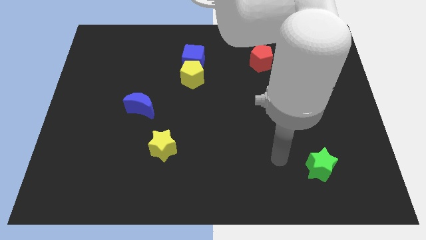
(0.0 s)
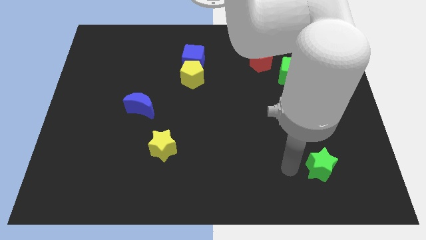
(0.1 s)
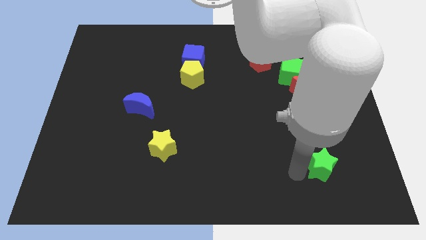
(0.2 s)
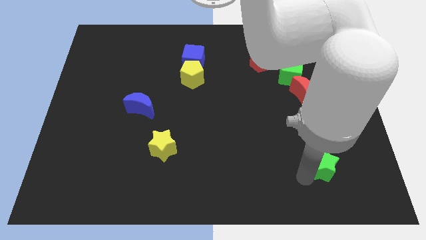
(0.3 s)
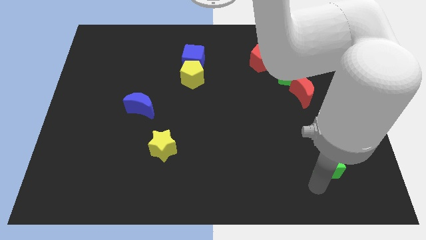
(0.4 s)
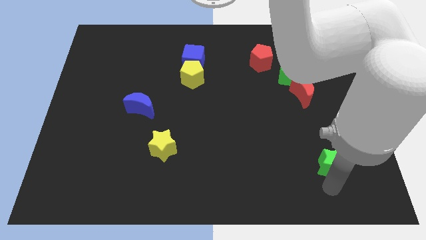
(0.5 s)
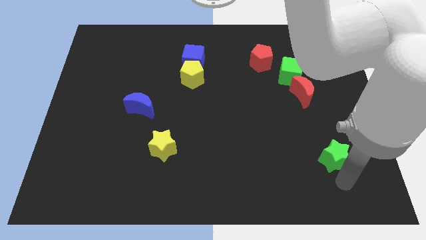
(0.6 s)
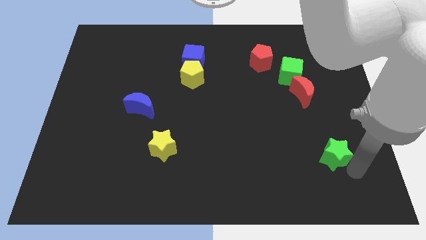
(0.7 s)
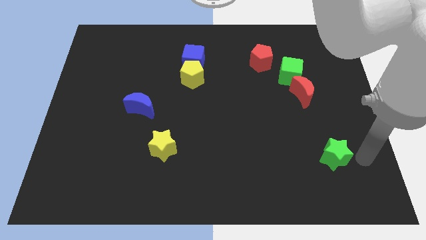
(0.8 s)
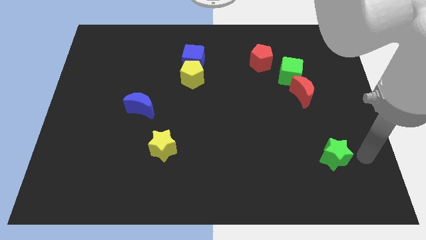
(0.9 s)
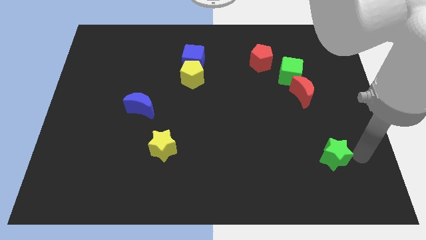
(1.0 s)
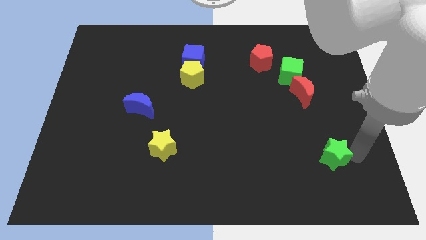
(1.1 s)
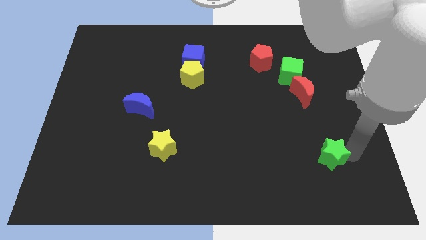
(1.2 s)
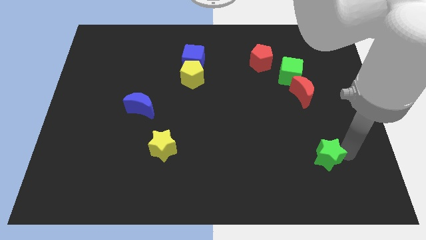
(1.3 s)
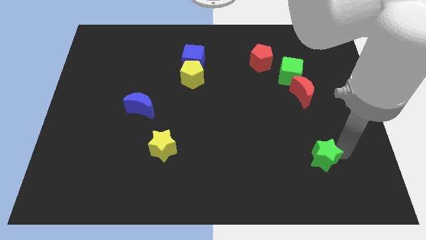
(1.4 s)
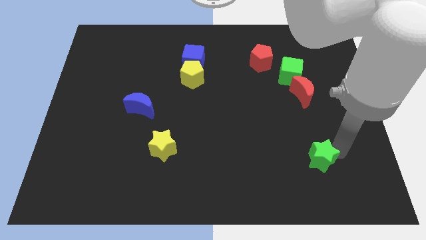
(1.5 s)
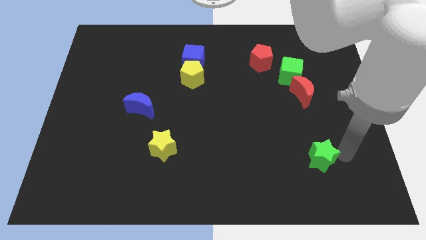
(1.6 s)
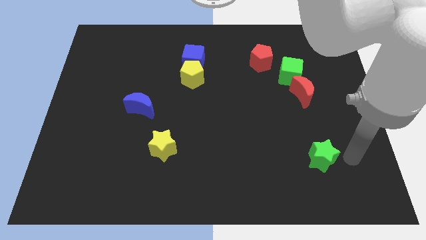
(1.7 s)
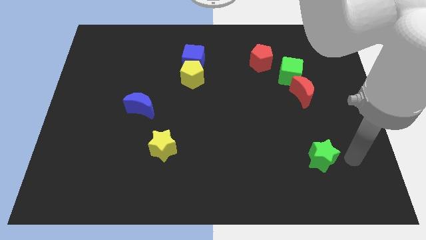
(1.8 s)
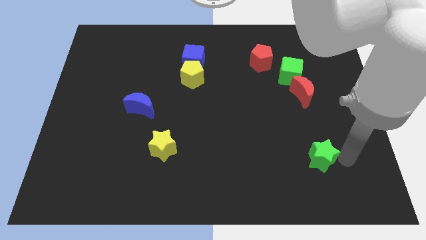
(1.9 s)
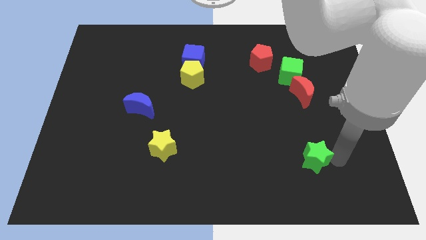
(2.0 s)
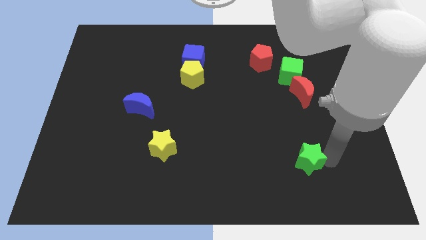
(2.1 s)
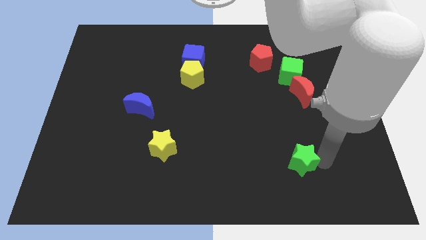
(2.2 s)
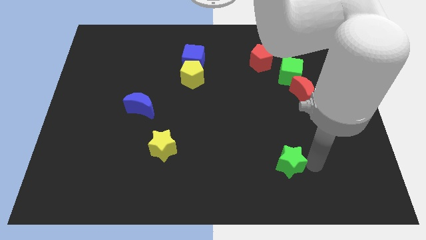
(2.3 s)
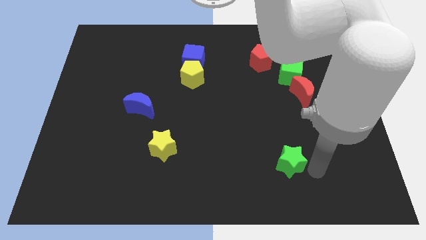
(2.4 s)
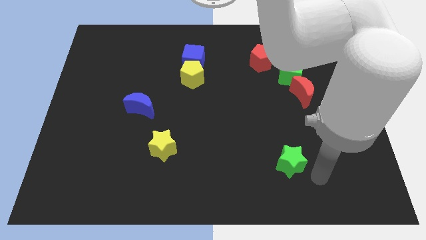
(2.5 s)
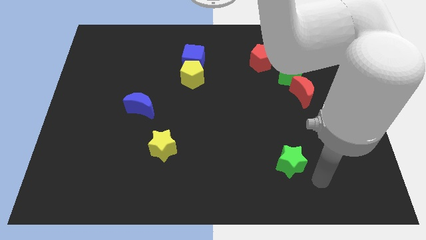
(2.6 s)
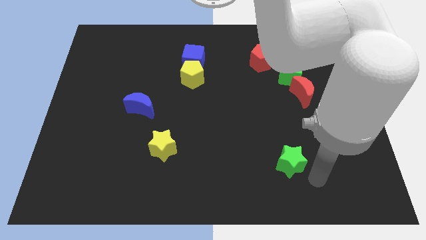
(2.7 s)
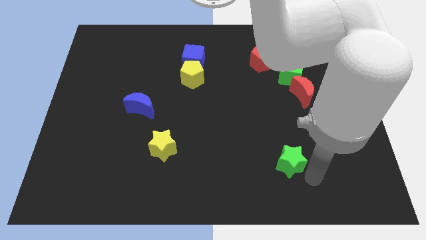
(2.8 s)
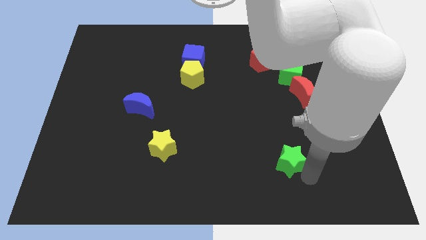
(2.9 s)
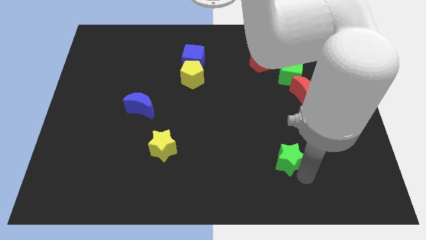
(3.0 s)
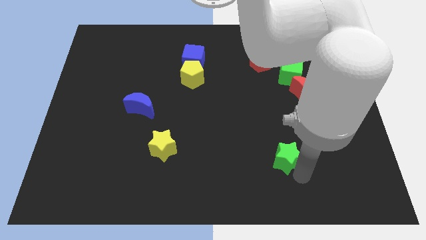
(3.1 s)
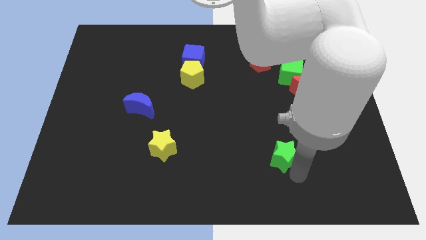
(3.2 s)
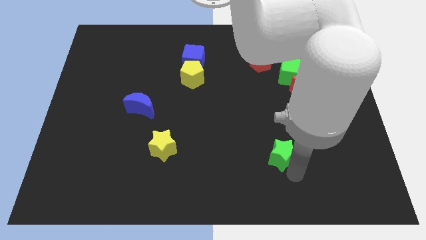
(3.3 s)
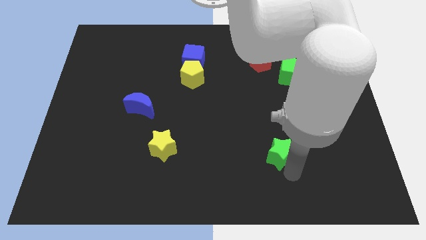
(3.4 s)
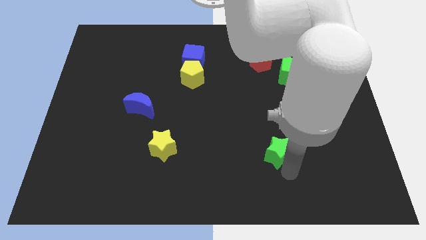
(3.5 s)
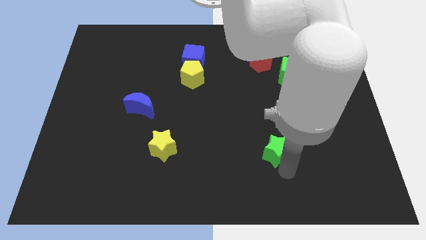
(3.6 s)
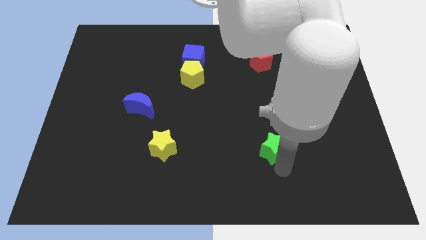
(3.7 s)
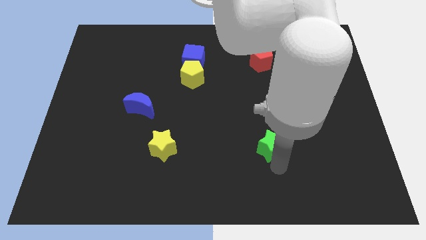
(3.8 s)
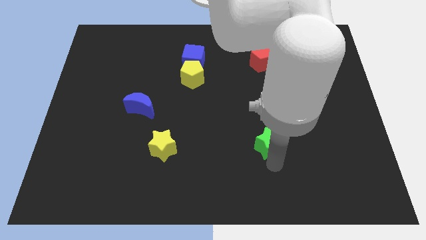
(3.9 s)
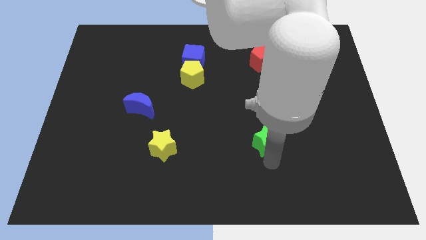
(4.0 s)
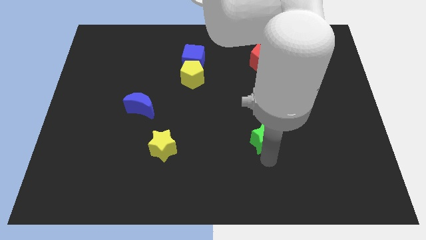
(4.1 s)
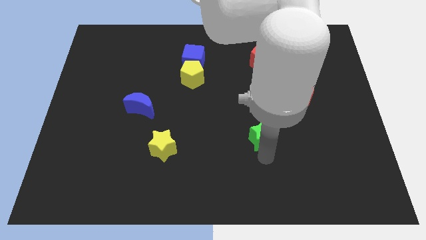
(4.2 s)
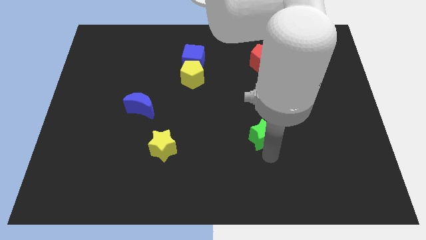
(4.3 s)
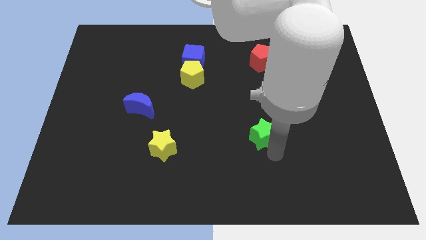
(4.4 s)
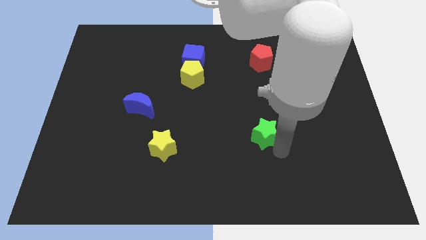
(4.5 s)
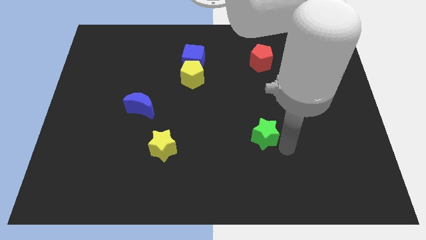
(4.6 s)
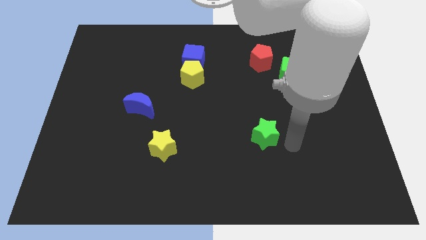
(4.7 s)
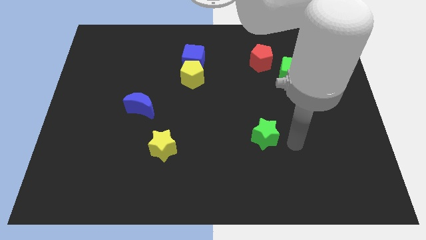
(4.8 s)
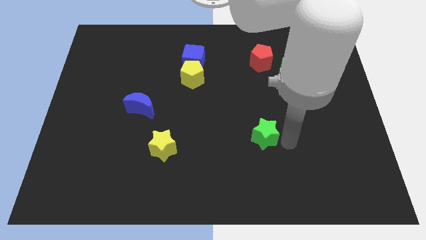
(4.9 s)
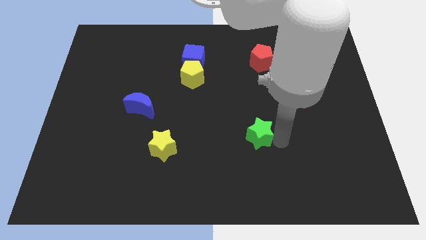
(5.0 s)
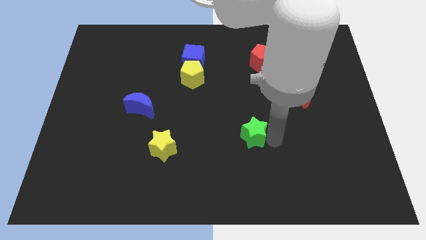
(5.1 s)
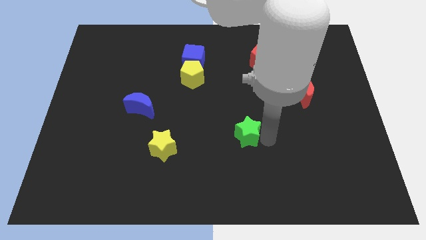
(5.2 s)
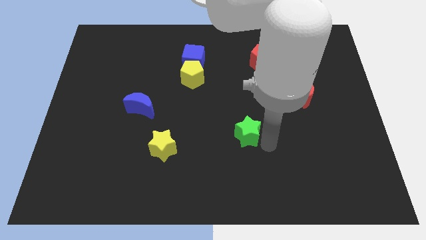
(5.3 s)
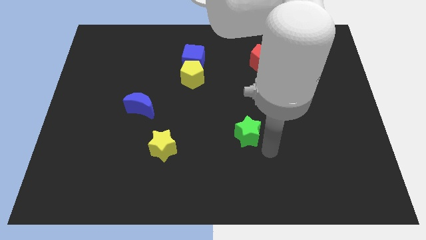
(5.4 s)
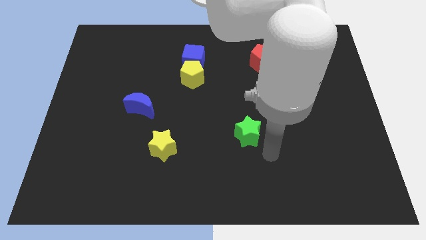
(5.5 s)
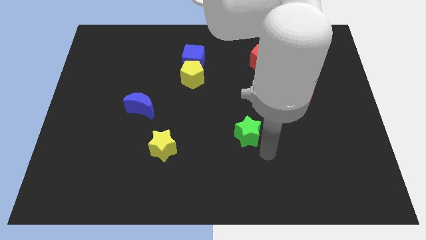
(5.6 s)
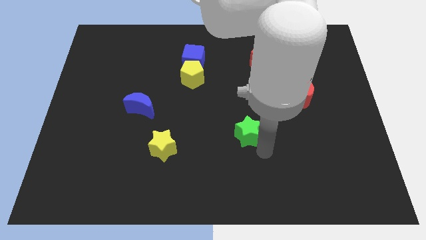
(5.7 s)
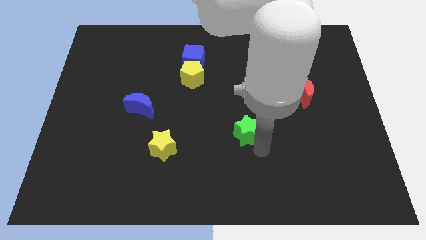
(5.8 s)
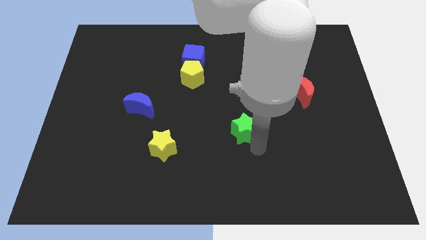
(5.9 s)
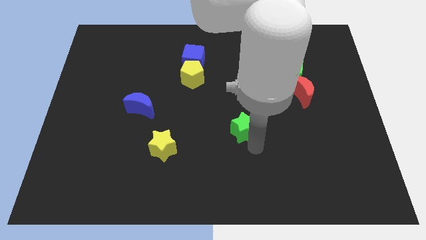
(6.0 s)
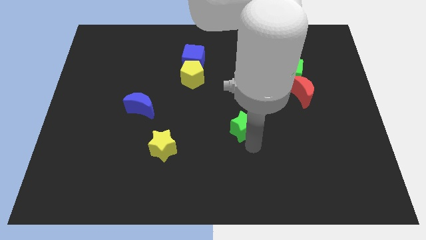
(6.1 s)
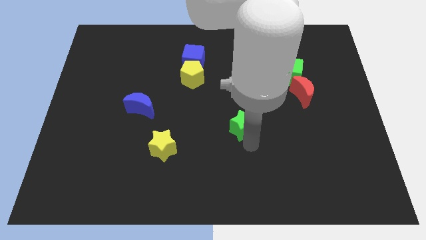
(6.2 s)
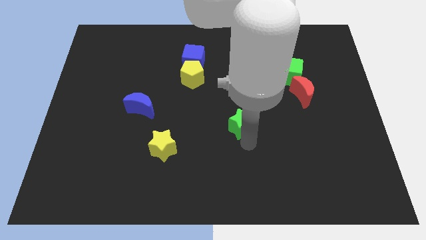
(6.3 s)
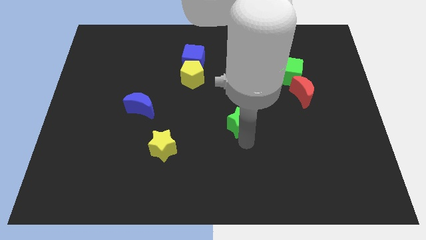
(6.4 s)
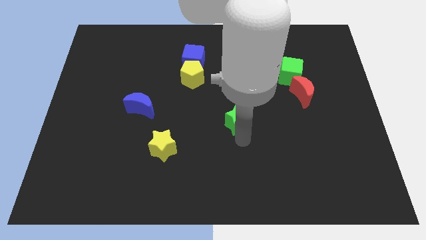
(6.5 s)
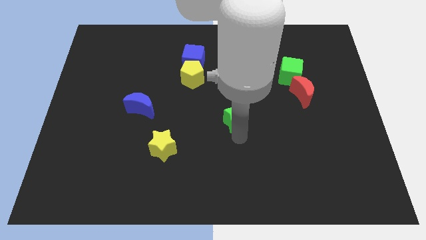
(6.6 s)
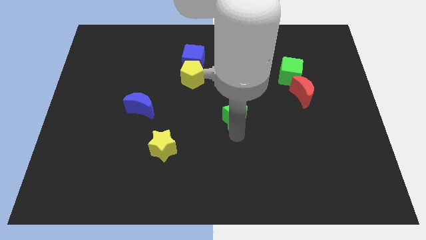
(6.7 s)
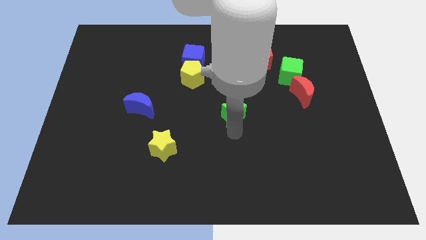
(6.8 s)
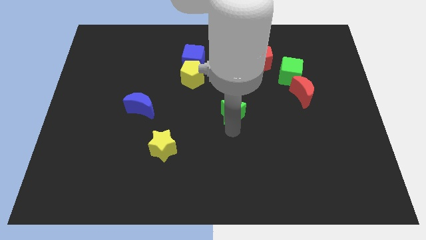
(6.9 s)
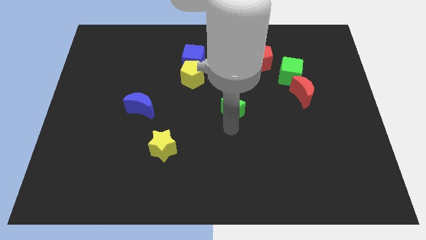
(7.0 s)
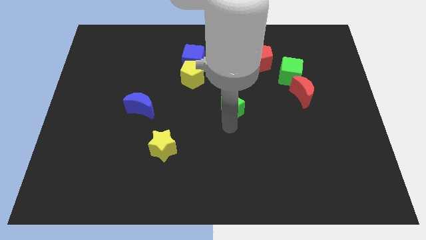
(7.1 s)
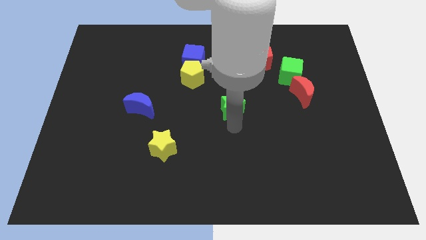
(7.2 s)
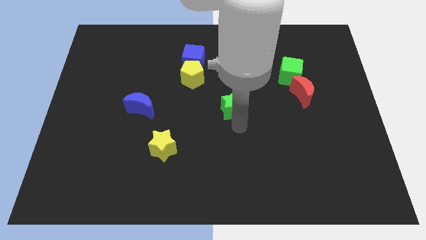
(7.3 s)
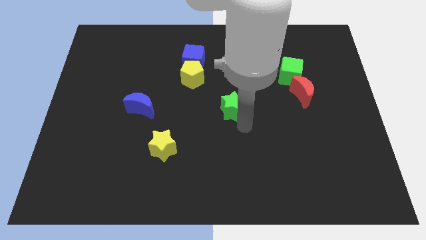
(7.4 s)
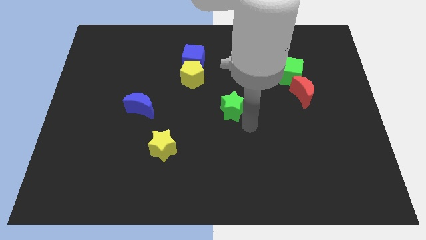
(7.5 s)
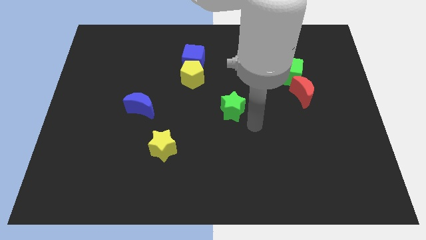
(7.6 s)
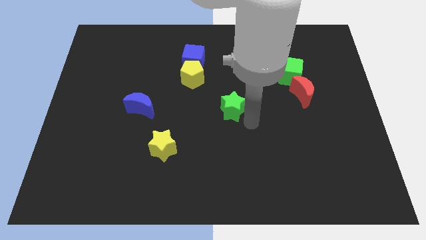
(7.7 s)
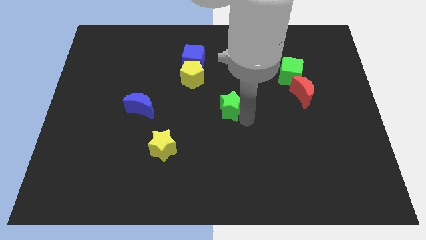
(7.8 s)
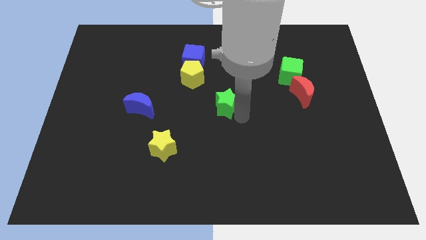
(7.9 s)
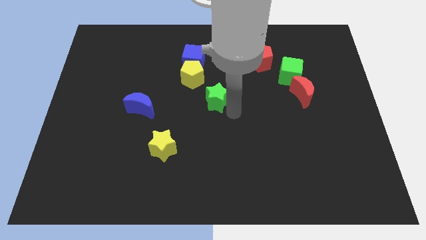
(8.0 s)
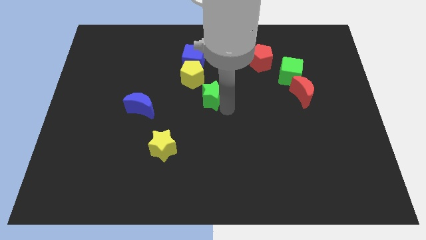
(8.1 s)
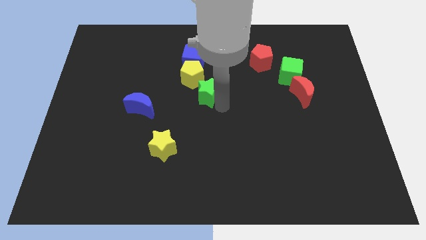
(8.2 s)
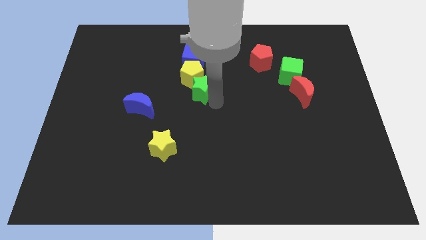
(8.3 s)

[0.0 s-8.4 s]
push the green star close to the yellow pentagon
